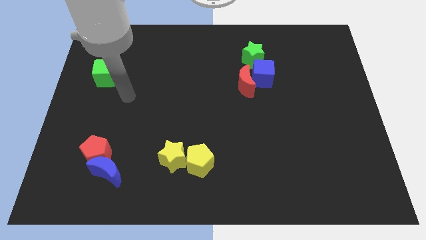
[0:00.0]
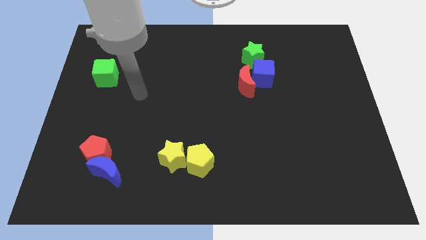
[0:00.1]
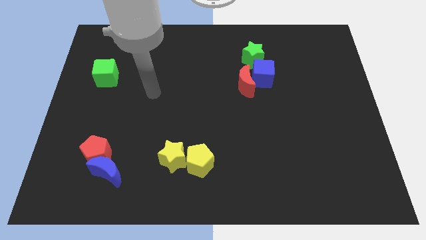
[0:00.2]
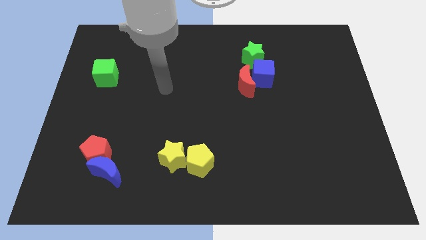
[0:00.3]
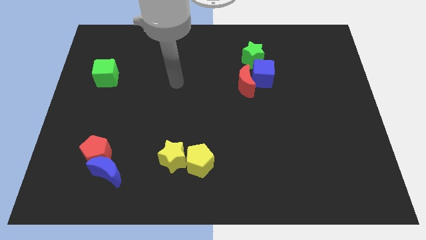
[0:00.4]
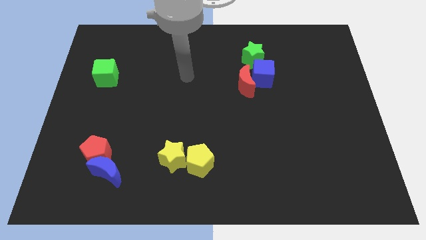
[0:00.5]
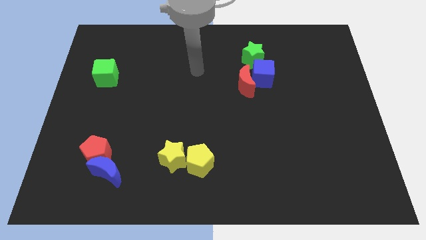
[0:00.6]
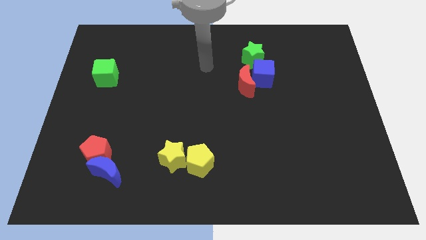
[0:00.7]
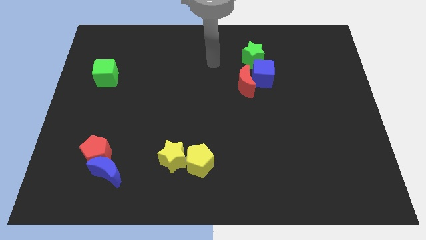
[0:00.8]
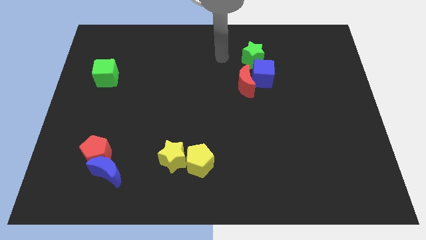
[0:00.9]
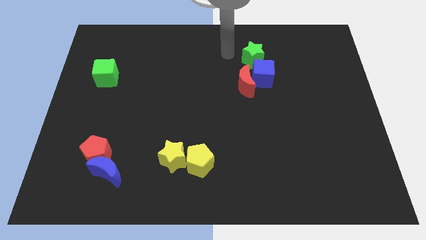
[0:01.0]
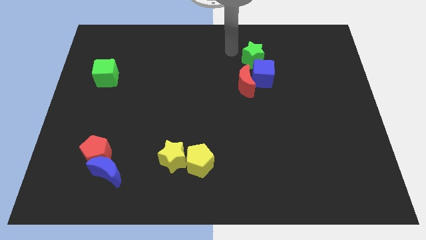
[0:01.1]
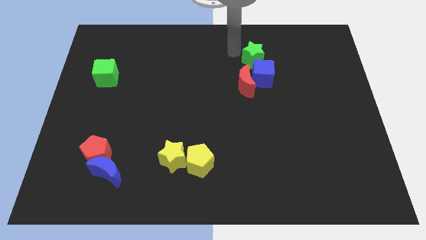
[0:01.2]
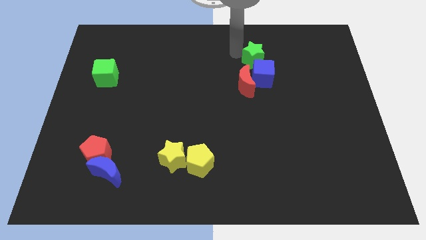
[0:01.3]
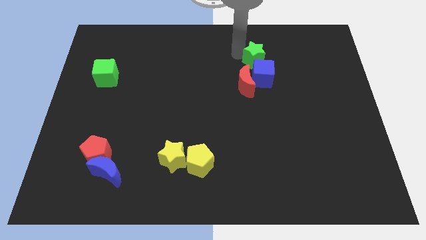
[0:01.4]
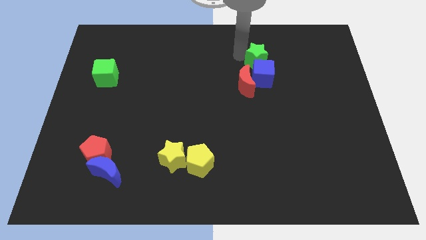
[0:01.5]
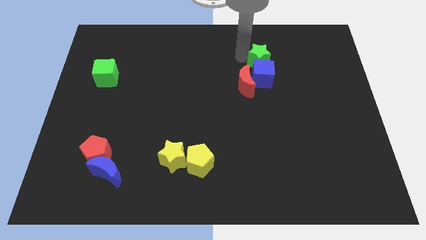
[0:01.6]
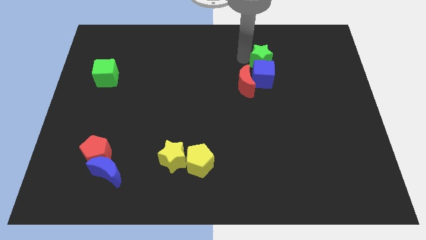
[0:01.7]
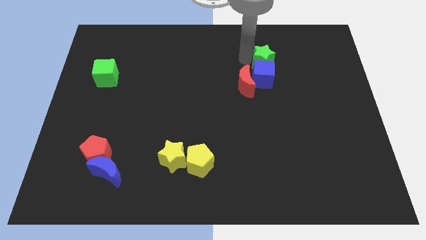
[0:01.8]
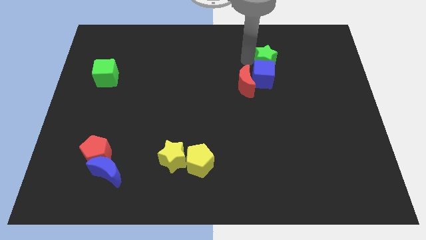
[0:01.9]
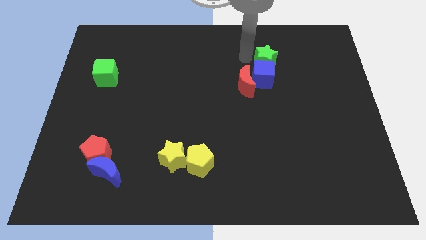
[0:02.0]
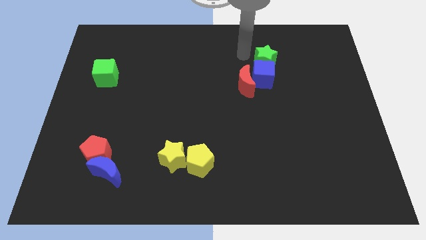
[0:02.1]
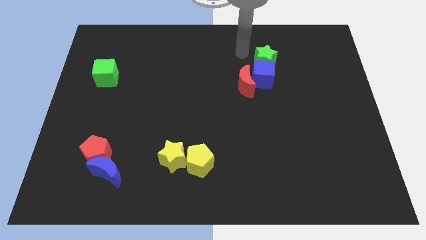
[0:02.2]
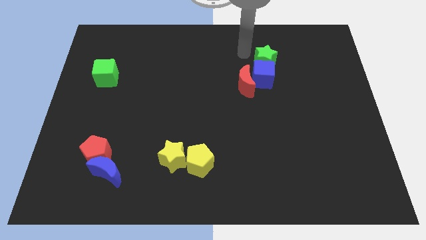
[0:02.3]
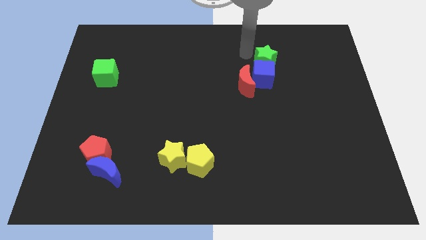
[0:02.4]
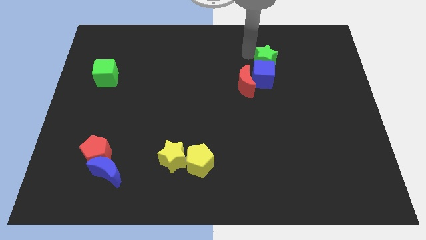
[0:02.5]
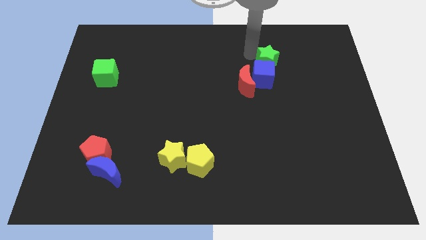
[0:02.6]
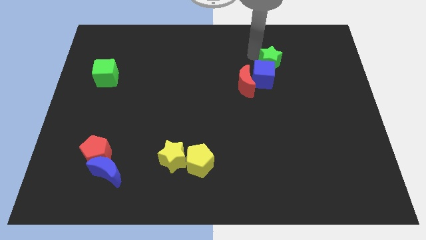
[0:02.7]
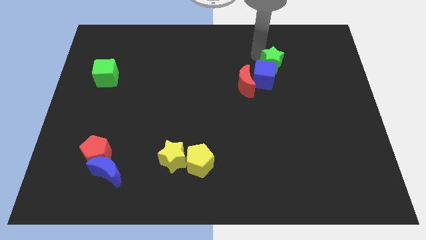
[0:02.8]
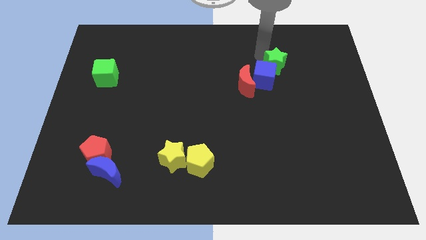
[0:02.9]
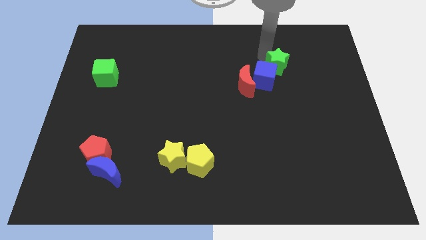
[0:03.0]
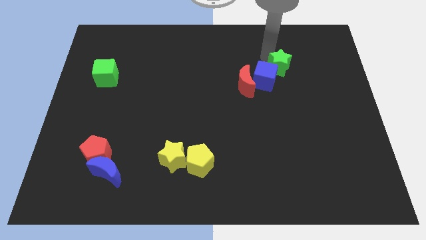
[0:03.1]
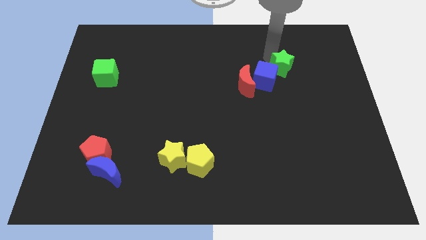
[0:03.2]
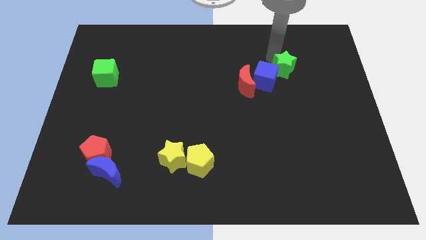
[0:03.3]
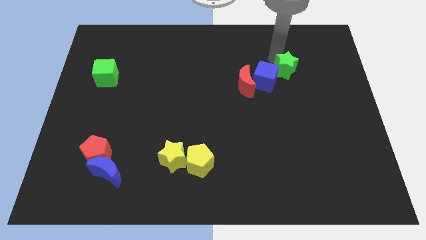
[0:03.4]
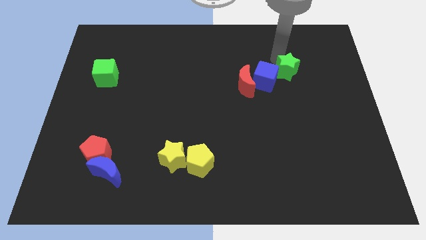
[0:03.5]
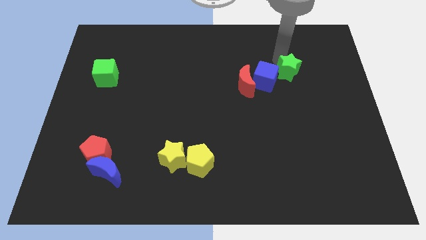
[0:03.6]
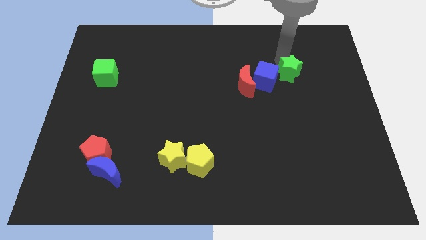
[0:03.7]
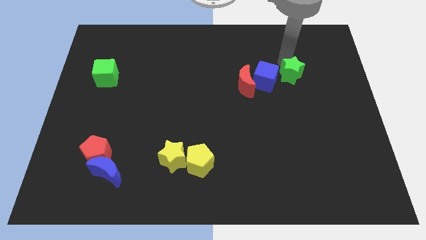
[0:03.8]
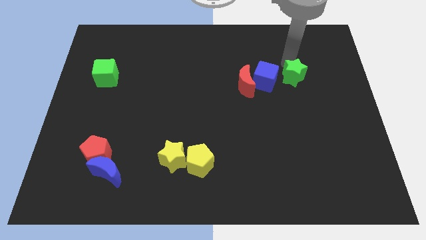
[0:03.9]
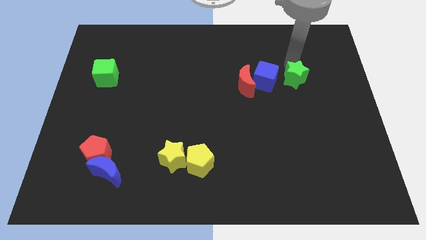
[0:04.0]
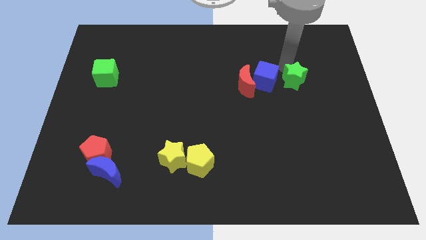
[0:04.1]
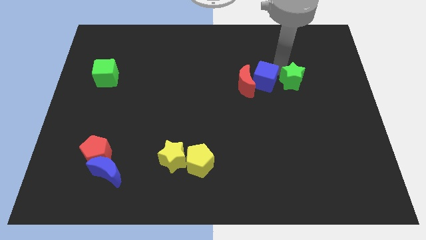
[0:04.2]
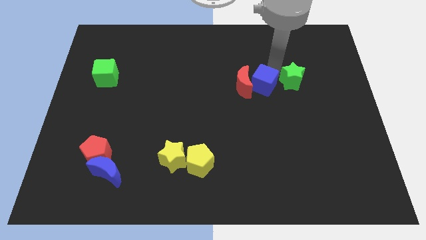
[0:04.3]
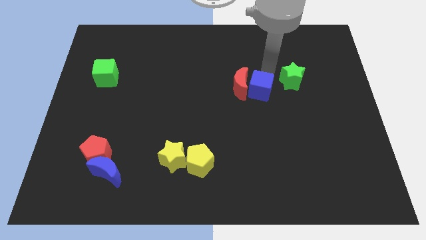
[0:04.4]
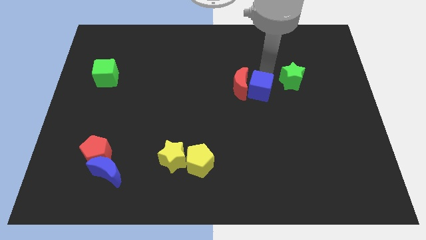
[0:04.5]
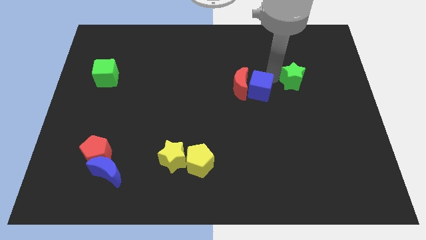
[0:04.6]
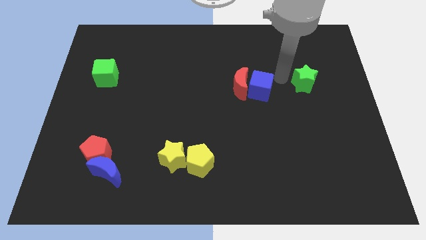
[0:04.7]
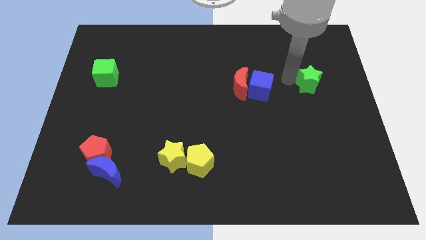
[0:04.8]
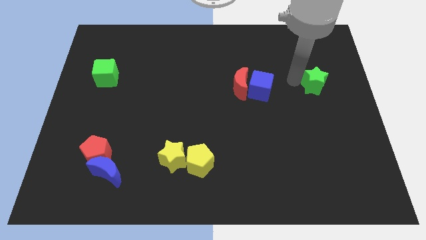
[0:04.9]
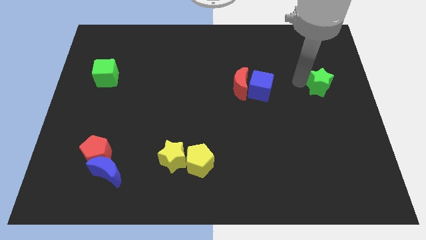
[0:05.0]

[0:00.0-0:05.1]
push the green star to the center right

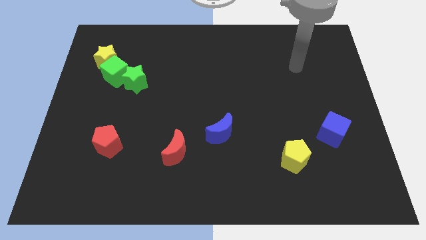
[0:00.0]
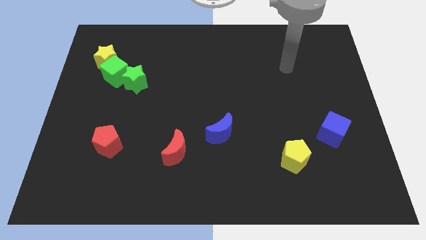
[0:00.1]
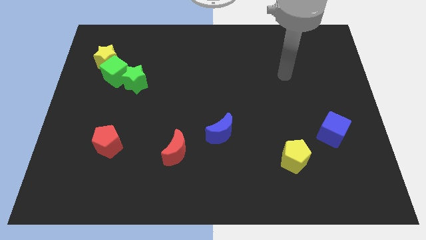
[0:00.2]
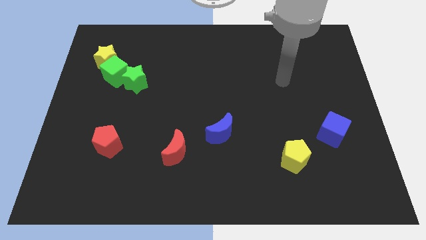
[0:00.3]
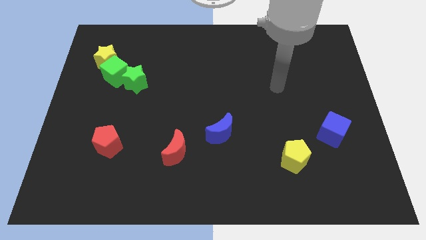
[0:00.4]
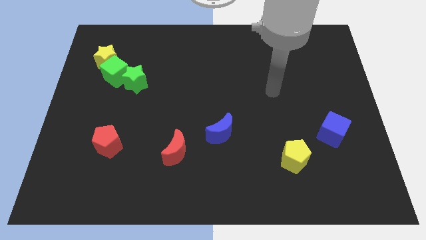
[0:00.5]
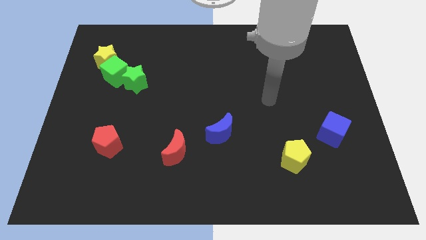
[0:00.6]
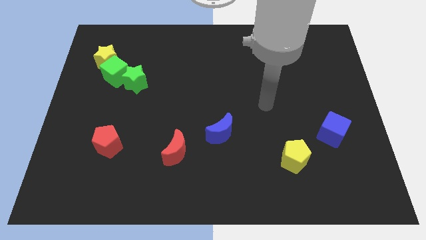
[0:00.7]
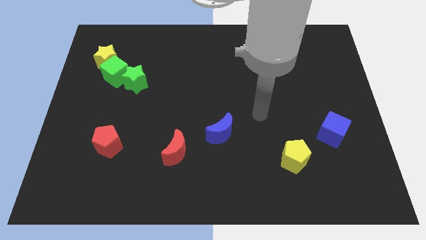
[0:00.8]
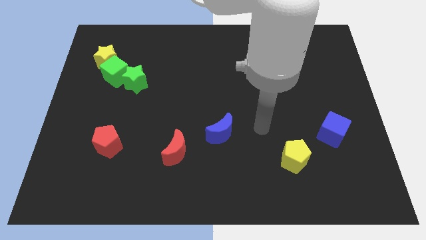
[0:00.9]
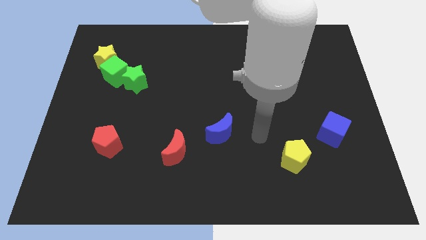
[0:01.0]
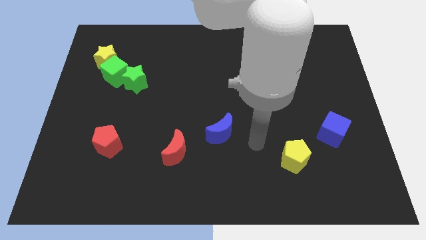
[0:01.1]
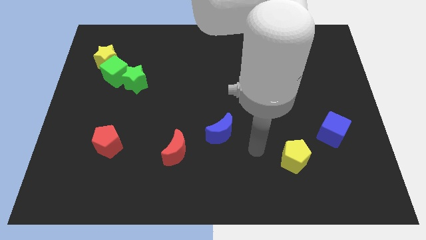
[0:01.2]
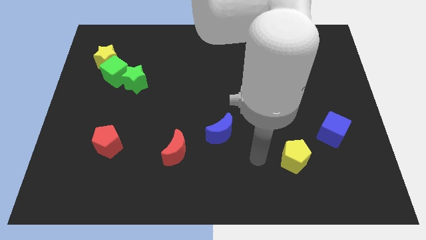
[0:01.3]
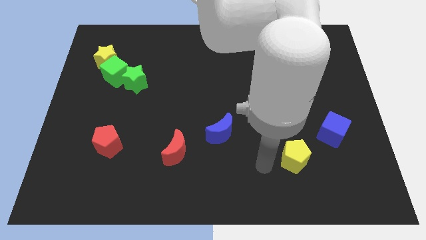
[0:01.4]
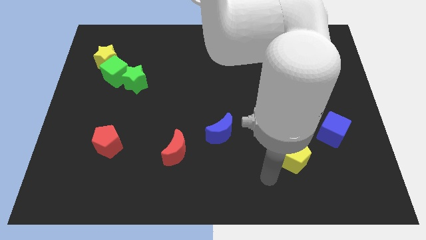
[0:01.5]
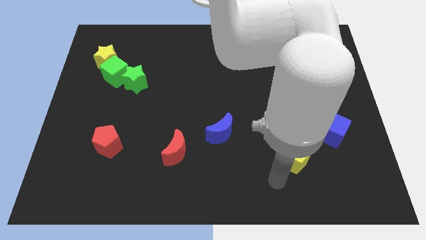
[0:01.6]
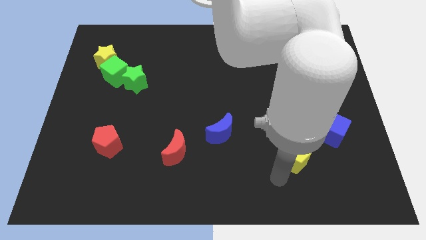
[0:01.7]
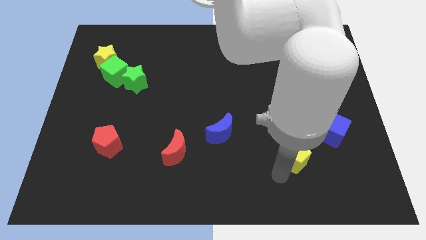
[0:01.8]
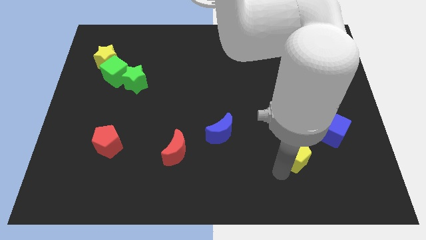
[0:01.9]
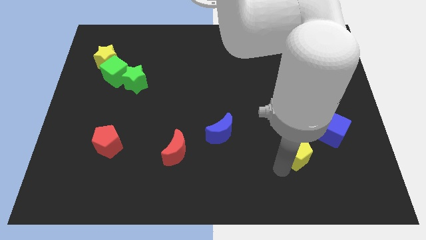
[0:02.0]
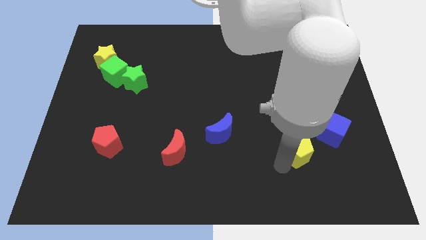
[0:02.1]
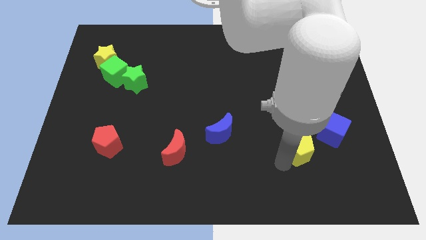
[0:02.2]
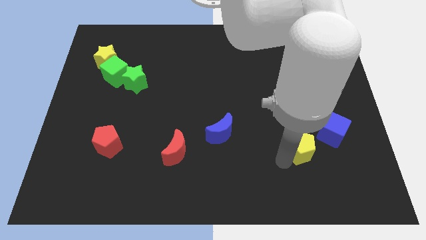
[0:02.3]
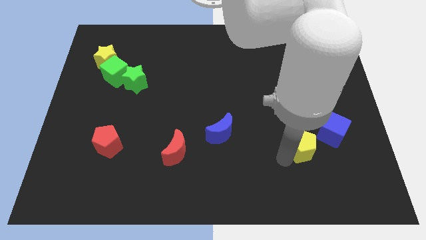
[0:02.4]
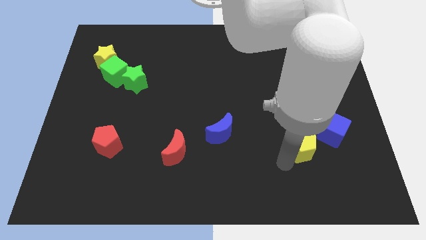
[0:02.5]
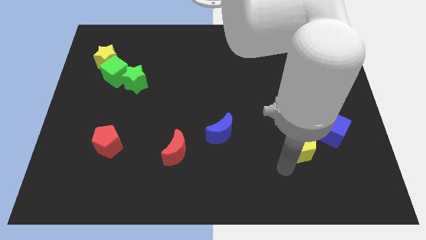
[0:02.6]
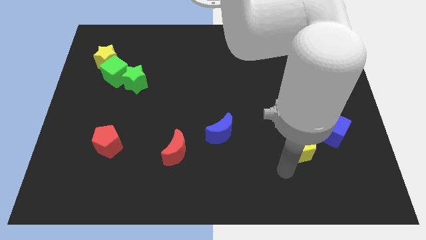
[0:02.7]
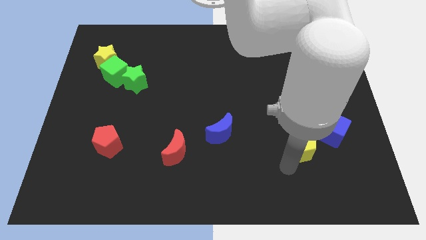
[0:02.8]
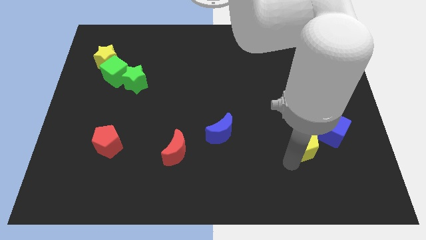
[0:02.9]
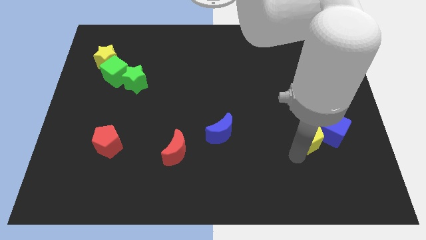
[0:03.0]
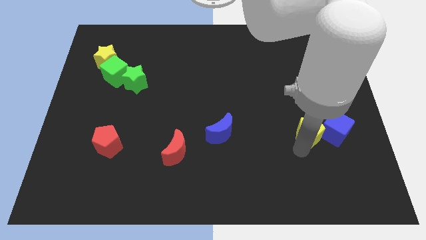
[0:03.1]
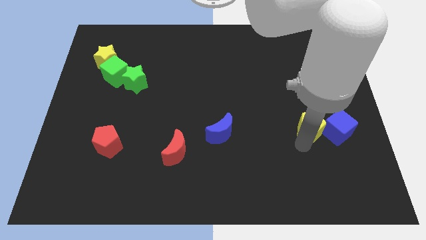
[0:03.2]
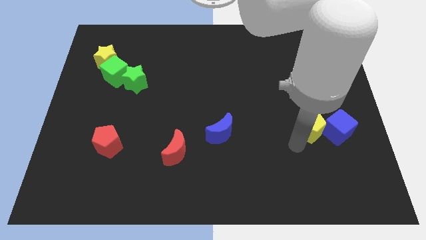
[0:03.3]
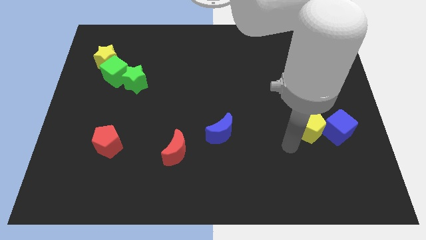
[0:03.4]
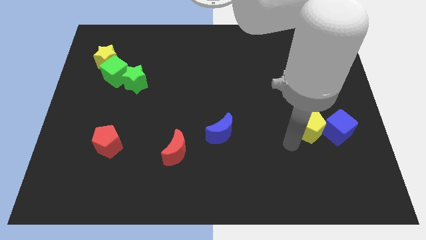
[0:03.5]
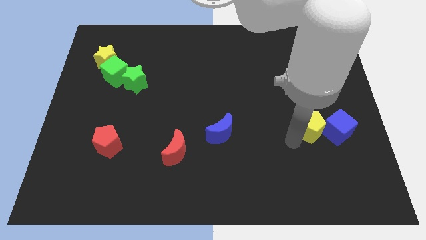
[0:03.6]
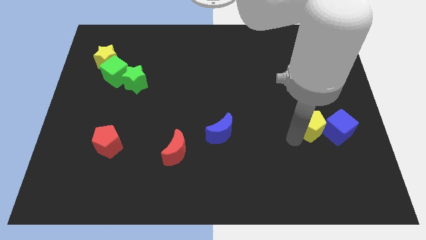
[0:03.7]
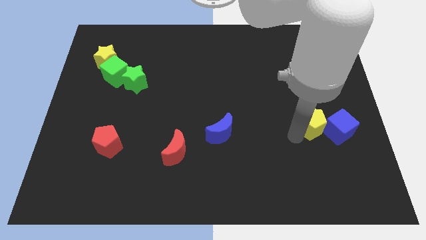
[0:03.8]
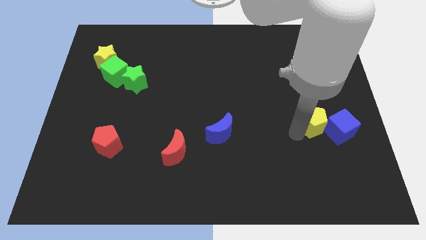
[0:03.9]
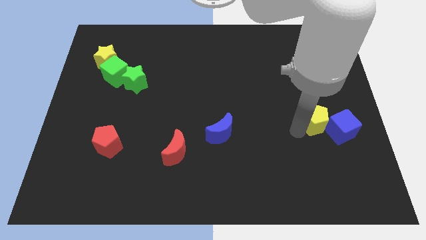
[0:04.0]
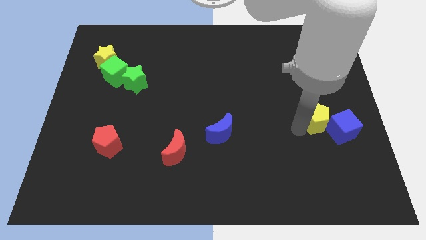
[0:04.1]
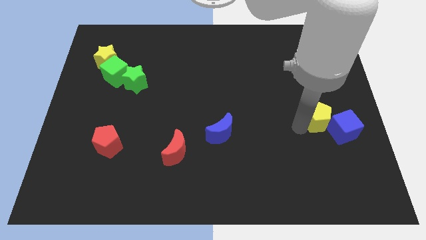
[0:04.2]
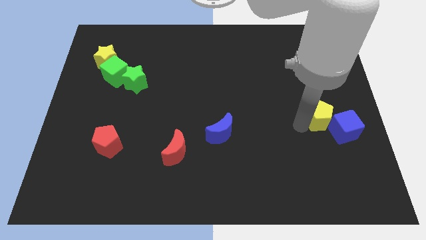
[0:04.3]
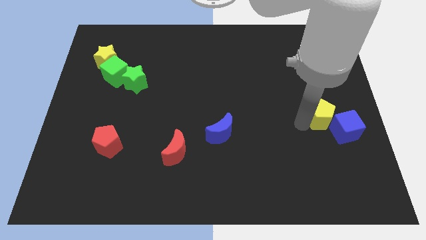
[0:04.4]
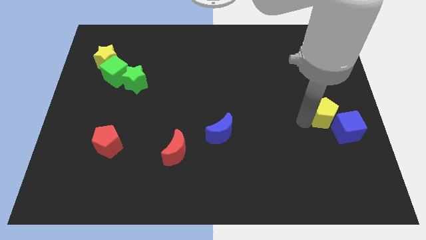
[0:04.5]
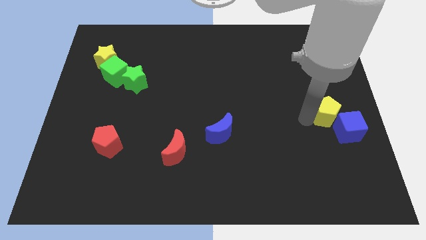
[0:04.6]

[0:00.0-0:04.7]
slide the yellow pentagon to the right side of the board
